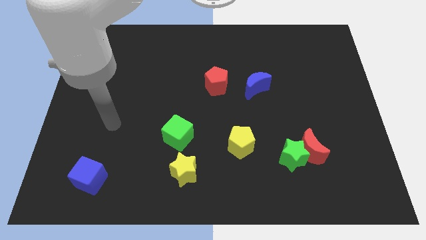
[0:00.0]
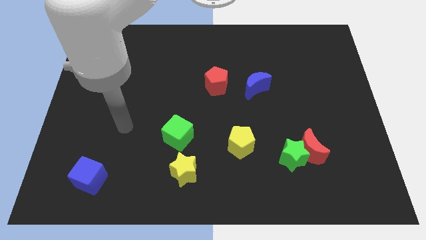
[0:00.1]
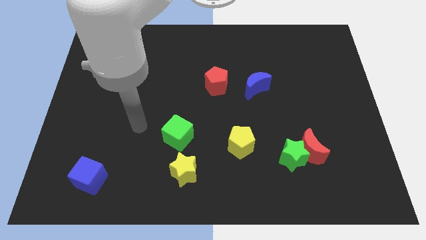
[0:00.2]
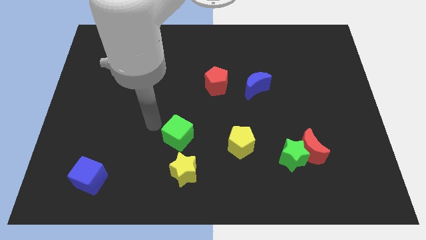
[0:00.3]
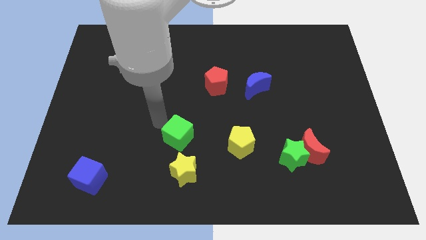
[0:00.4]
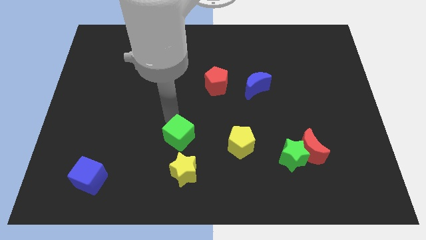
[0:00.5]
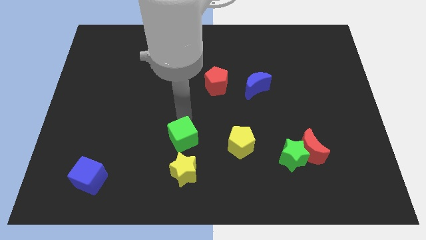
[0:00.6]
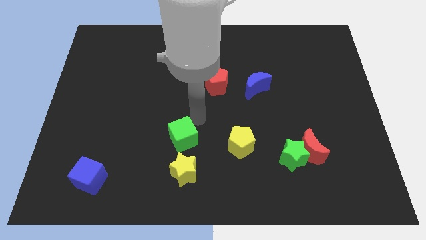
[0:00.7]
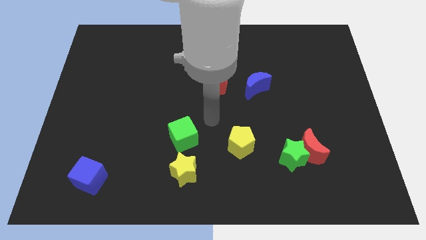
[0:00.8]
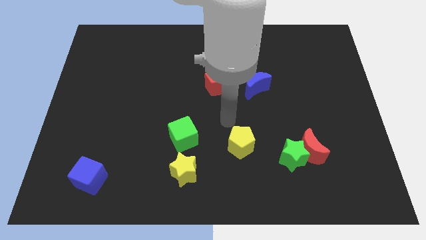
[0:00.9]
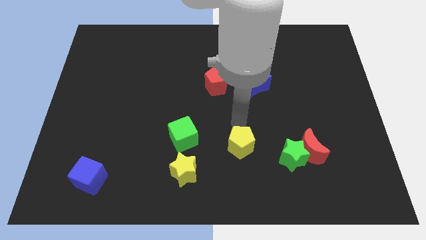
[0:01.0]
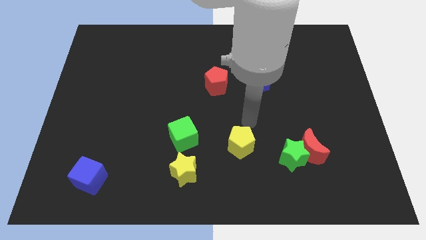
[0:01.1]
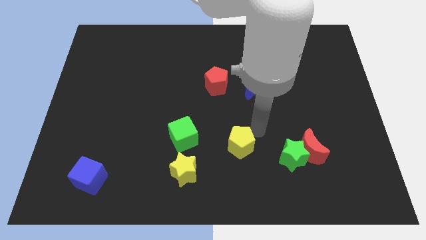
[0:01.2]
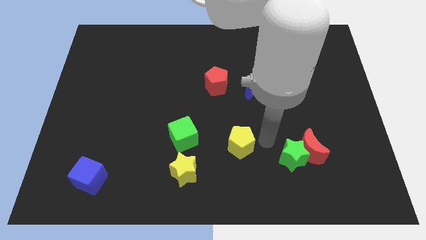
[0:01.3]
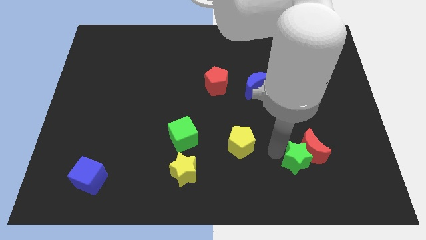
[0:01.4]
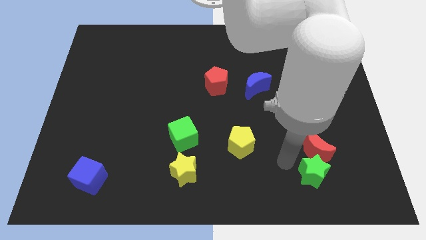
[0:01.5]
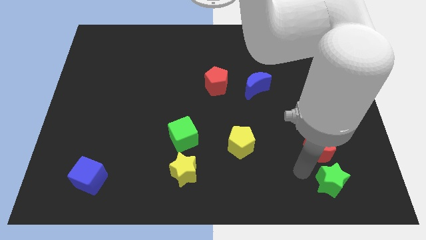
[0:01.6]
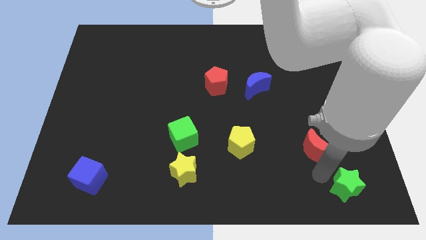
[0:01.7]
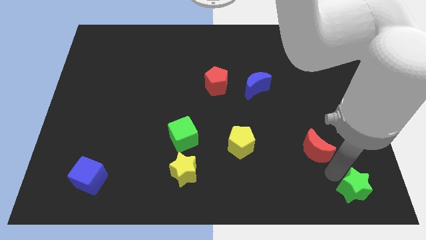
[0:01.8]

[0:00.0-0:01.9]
pull the red moon apart from the green star

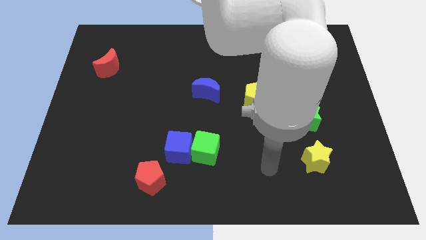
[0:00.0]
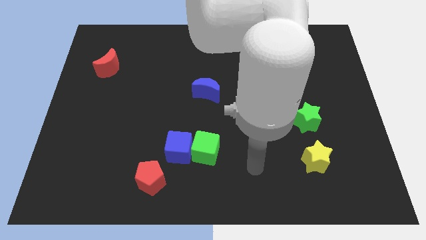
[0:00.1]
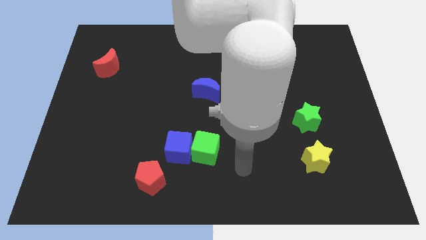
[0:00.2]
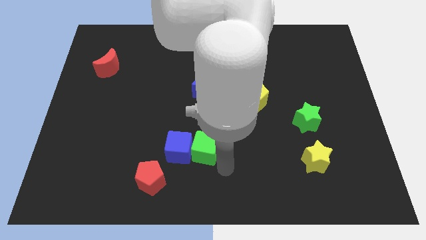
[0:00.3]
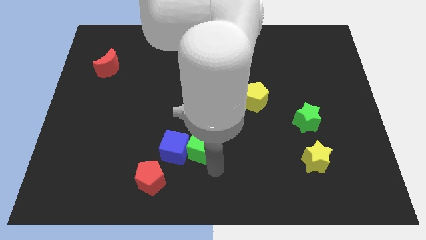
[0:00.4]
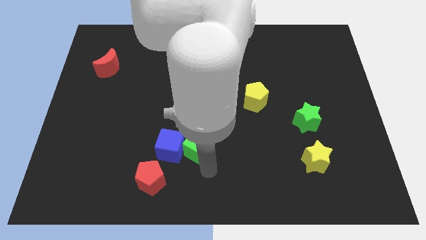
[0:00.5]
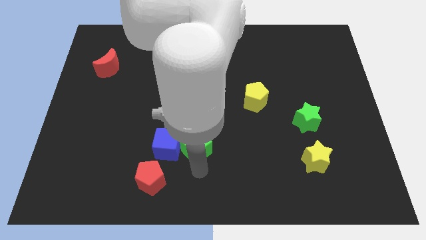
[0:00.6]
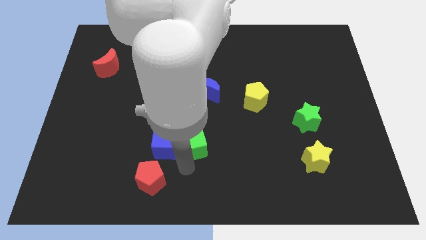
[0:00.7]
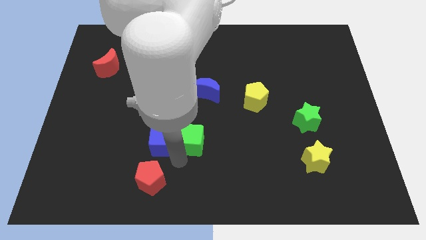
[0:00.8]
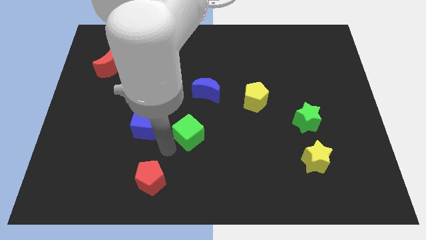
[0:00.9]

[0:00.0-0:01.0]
move the green cube away from the blue cube

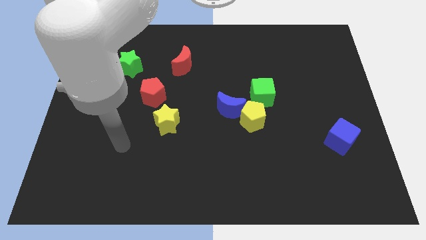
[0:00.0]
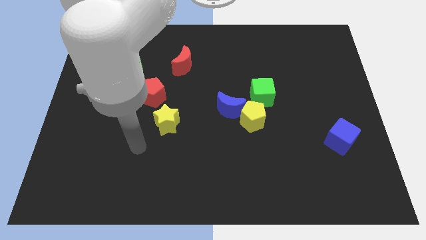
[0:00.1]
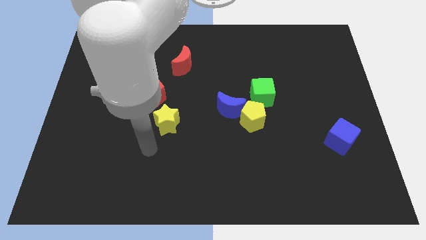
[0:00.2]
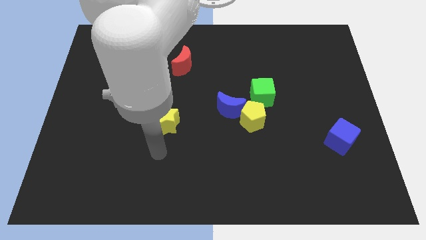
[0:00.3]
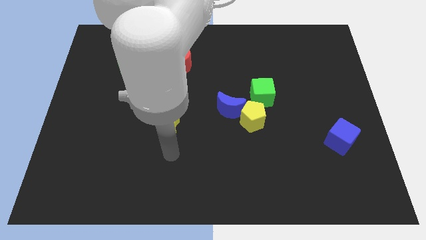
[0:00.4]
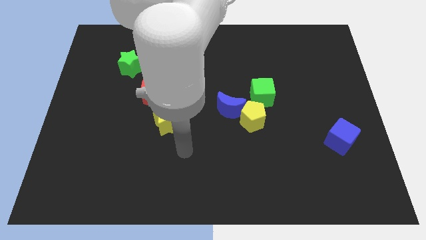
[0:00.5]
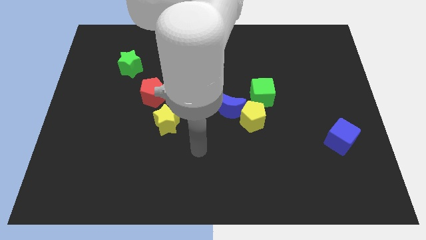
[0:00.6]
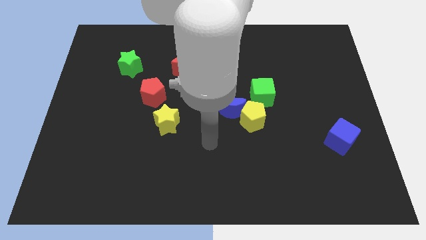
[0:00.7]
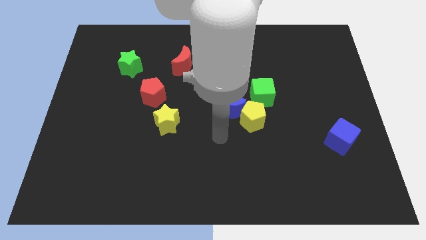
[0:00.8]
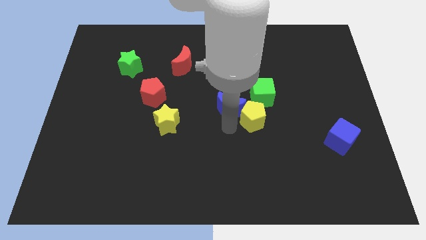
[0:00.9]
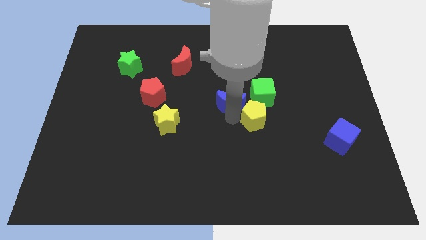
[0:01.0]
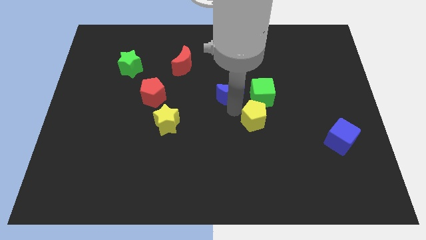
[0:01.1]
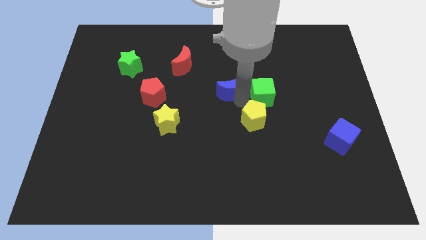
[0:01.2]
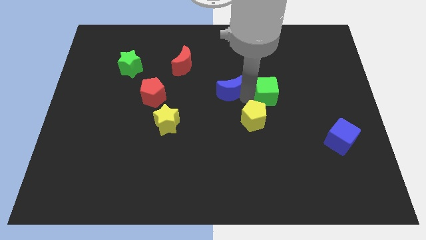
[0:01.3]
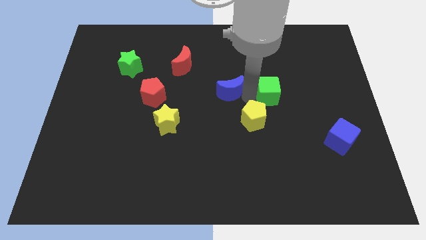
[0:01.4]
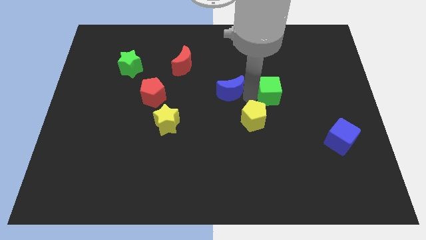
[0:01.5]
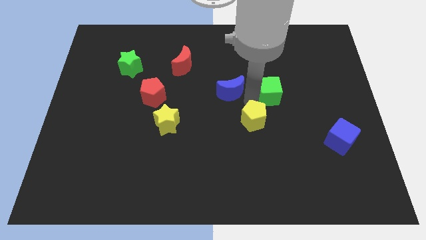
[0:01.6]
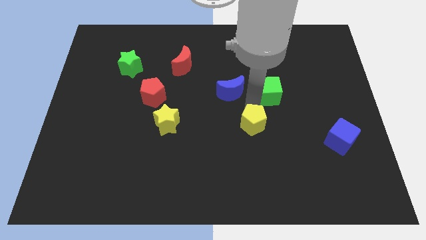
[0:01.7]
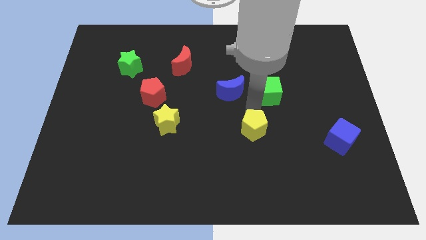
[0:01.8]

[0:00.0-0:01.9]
move the yellow pentagon away from the blue moon and green cube

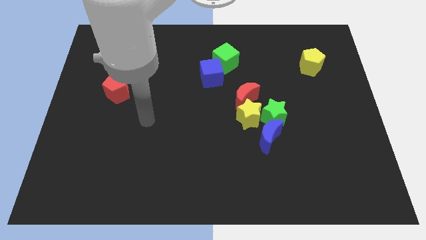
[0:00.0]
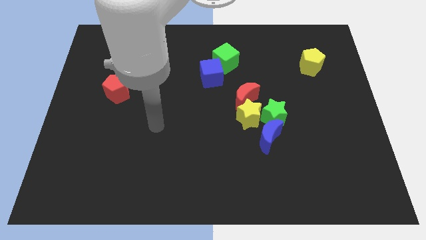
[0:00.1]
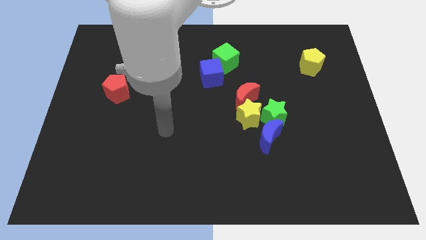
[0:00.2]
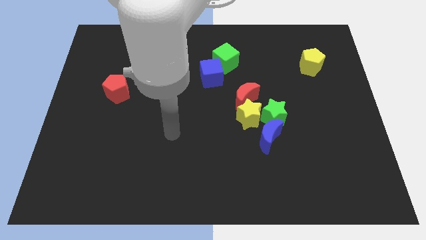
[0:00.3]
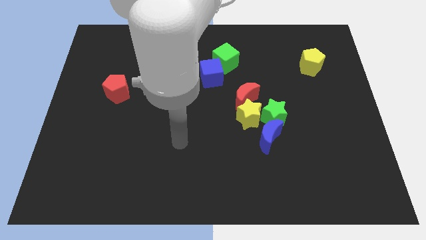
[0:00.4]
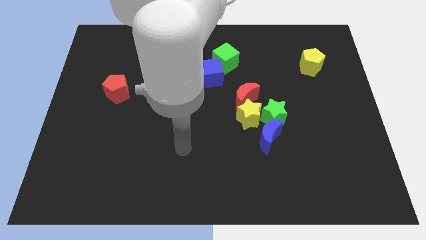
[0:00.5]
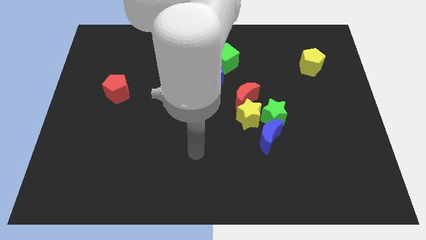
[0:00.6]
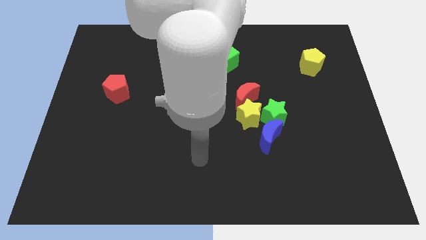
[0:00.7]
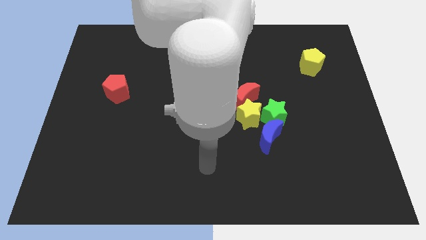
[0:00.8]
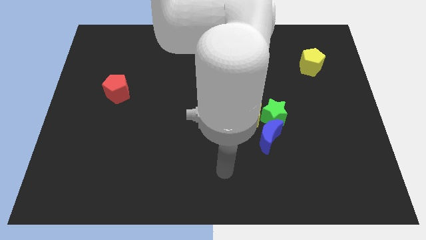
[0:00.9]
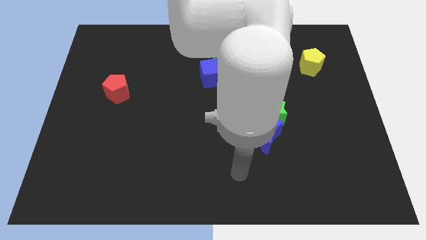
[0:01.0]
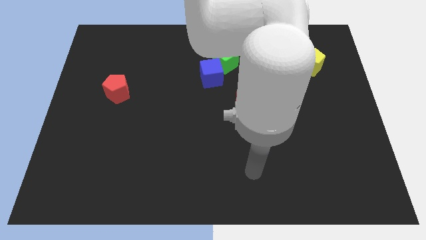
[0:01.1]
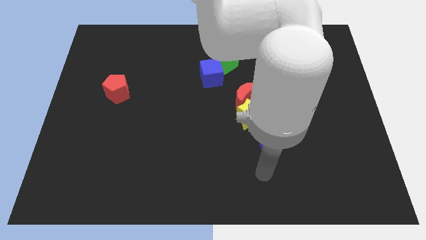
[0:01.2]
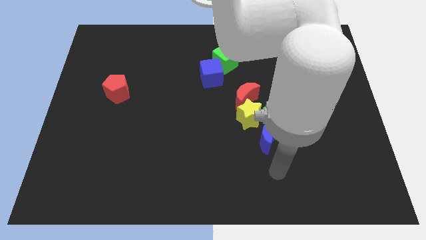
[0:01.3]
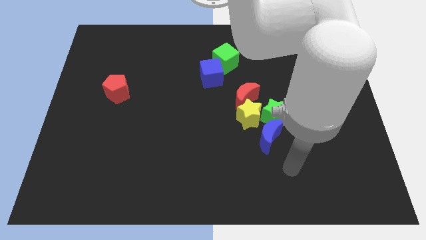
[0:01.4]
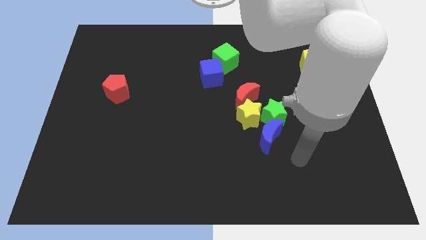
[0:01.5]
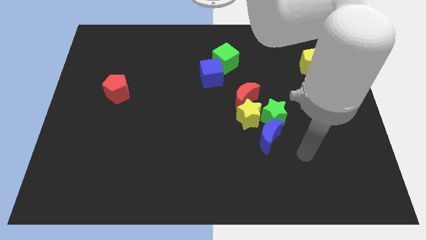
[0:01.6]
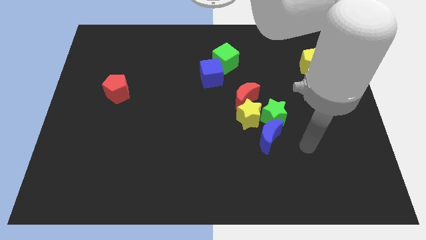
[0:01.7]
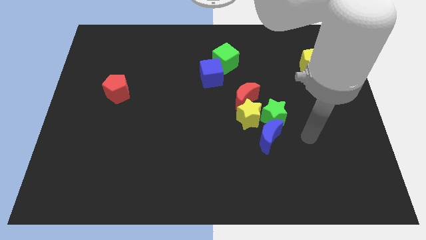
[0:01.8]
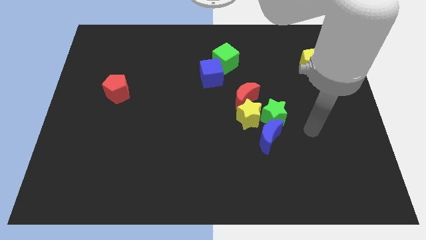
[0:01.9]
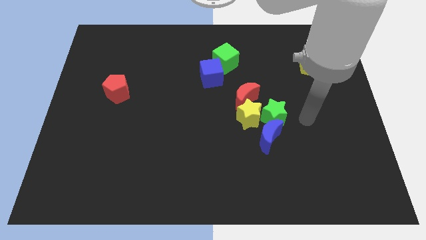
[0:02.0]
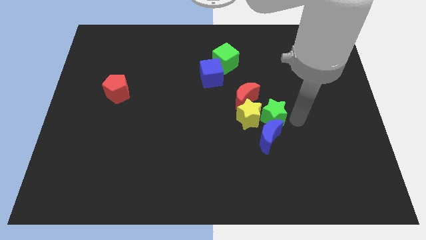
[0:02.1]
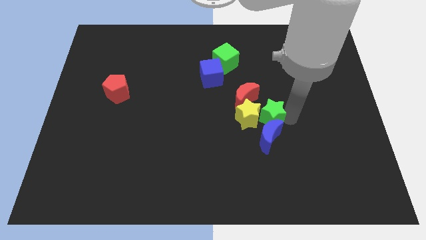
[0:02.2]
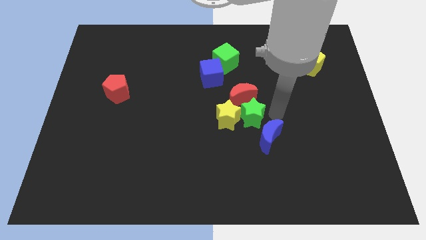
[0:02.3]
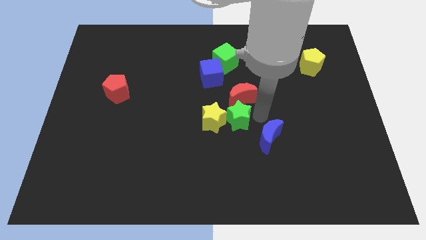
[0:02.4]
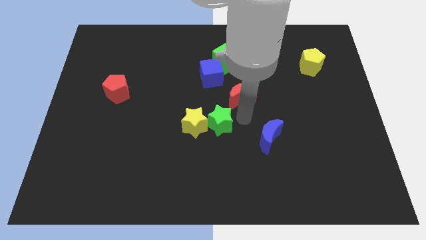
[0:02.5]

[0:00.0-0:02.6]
move the yellow star away from the group of blocks

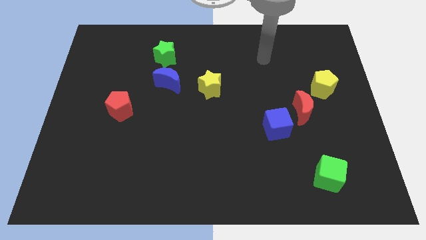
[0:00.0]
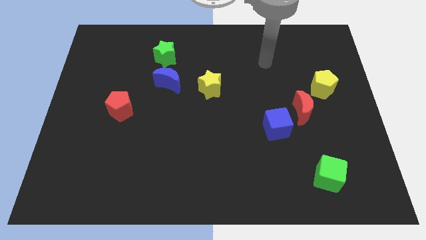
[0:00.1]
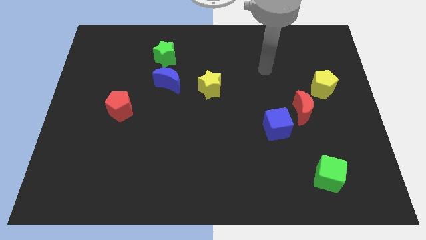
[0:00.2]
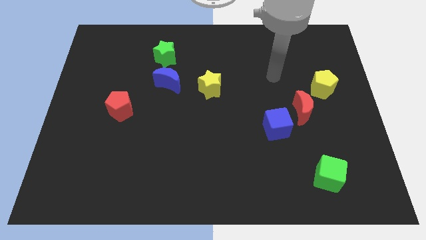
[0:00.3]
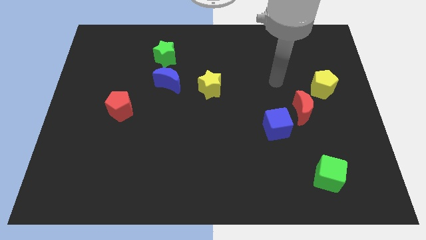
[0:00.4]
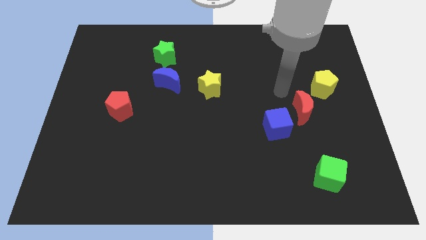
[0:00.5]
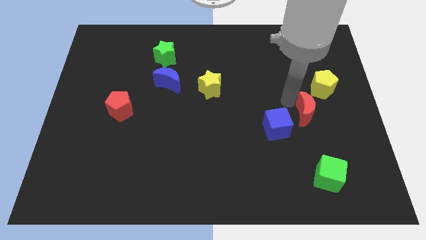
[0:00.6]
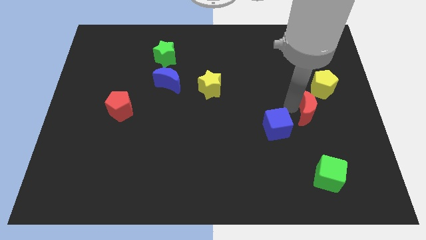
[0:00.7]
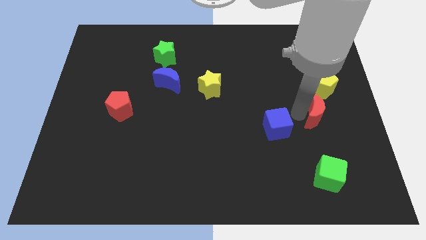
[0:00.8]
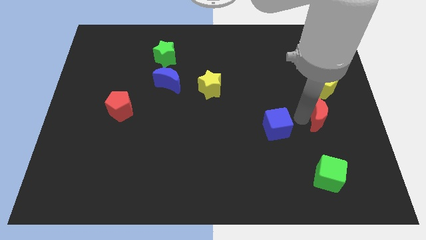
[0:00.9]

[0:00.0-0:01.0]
move the blue cube away from the red moon

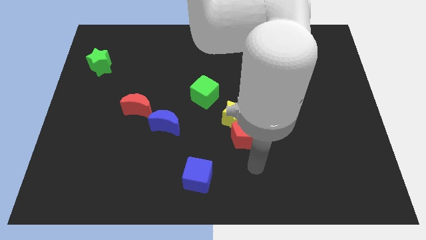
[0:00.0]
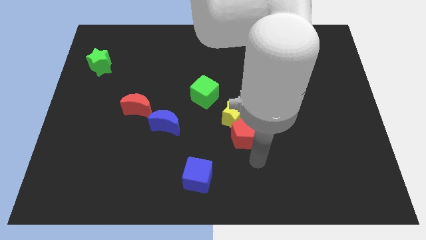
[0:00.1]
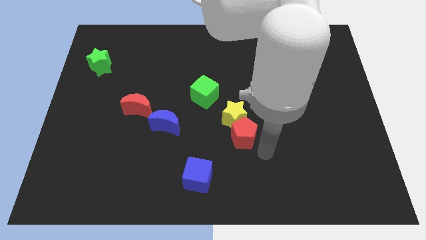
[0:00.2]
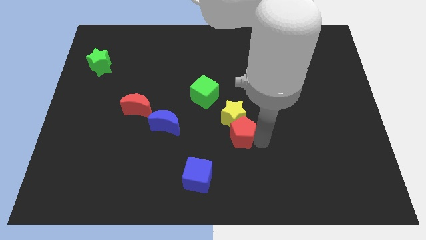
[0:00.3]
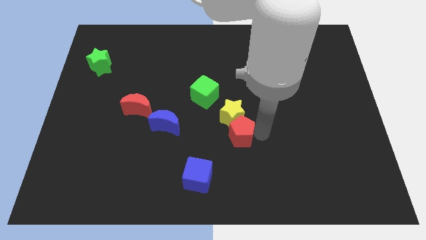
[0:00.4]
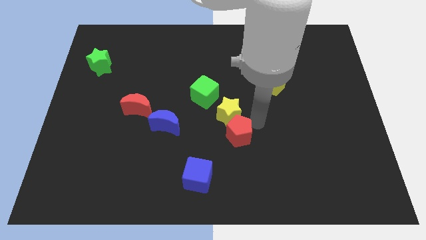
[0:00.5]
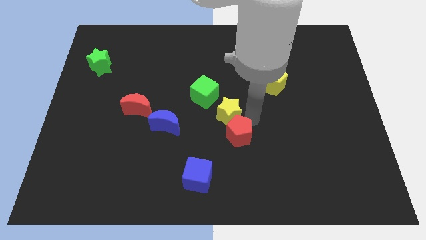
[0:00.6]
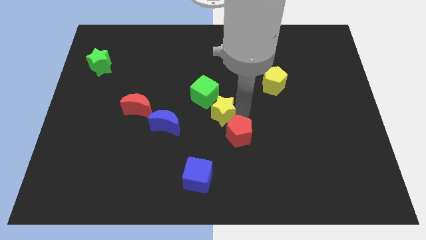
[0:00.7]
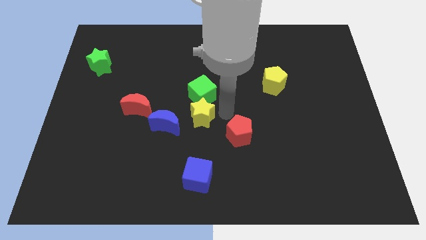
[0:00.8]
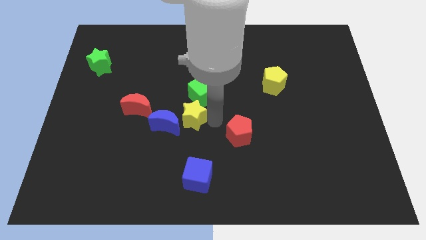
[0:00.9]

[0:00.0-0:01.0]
move the red pentagon away from the yellow star
